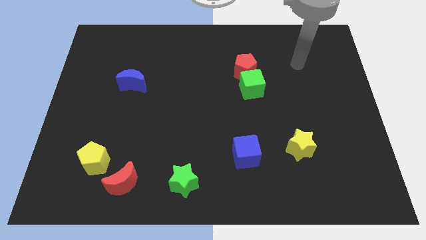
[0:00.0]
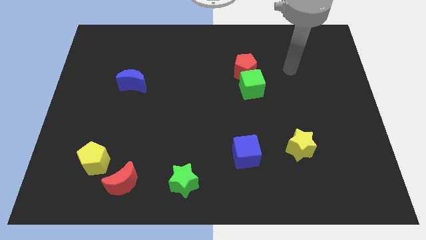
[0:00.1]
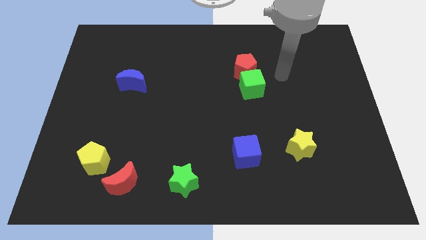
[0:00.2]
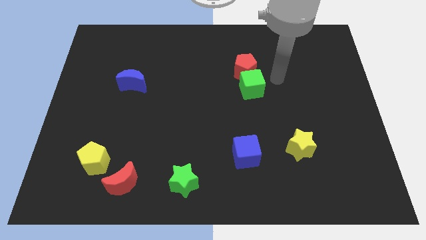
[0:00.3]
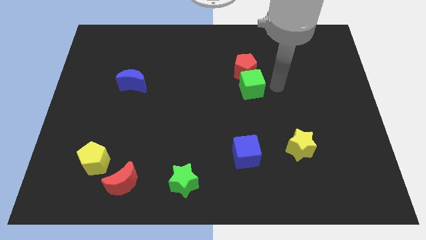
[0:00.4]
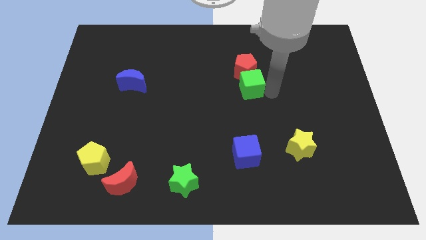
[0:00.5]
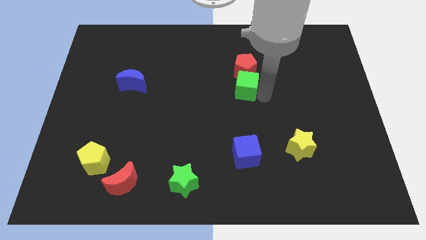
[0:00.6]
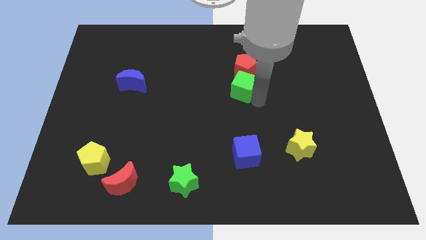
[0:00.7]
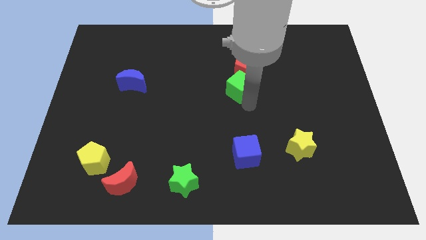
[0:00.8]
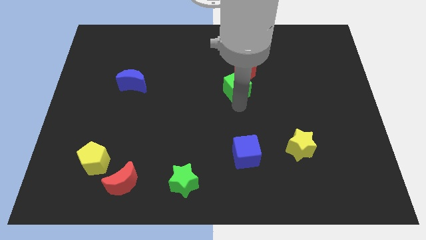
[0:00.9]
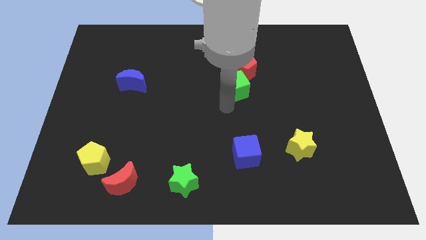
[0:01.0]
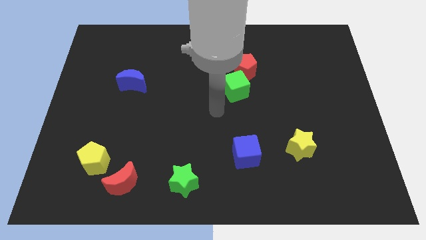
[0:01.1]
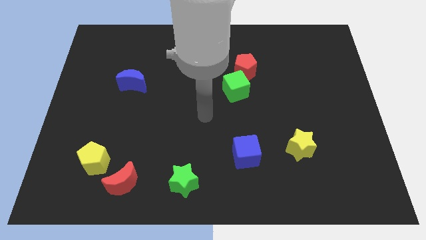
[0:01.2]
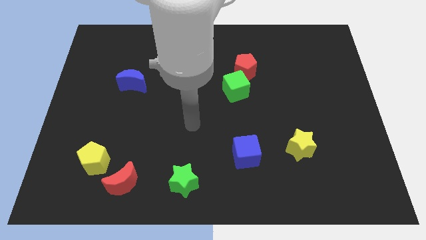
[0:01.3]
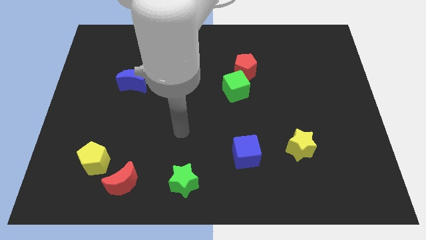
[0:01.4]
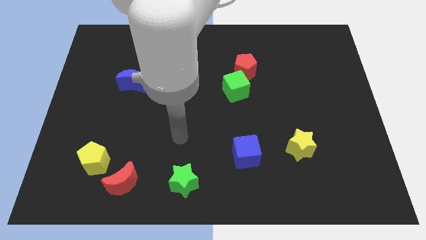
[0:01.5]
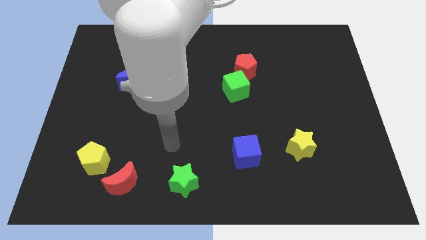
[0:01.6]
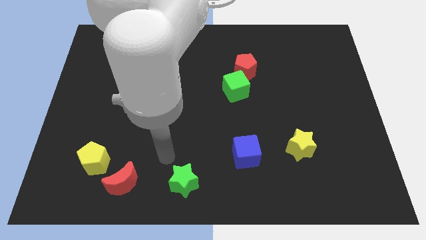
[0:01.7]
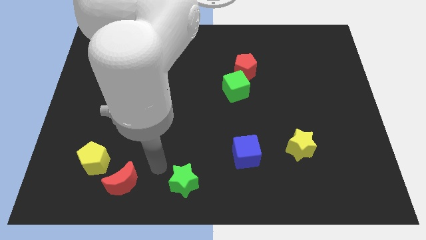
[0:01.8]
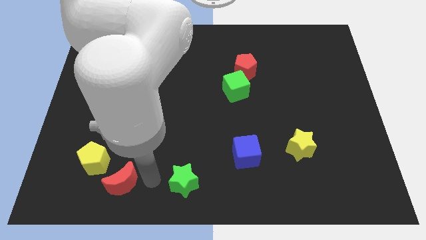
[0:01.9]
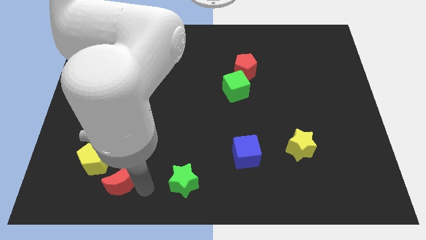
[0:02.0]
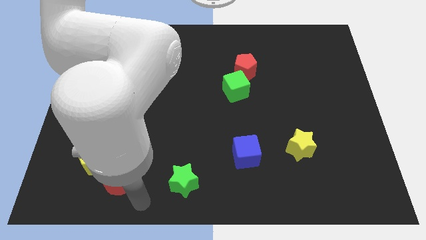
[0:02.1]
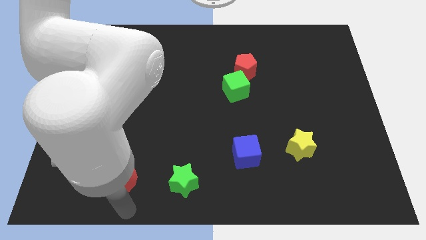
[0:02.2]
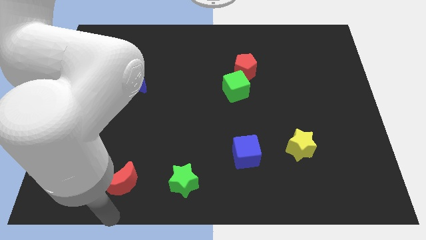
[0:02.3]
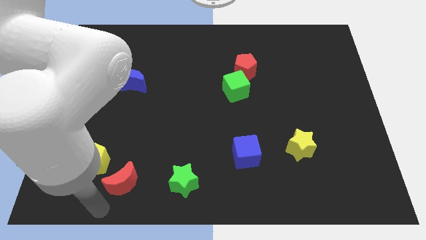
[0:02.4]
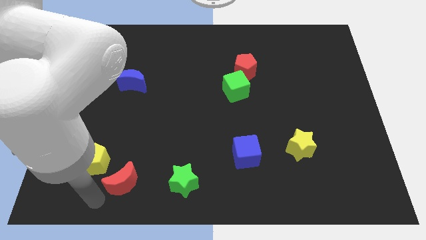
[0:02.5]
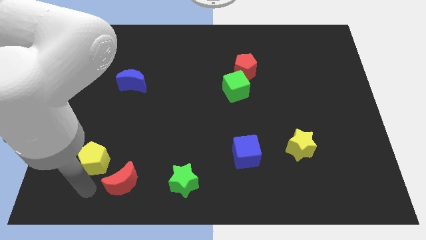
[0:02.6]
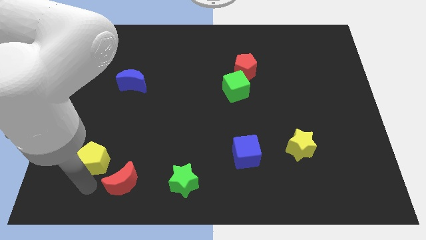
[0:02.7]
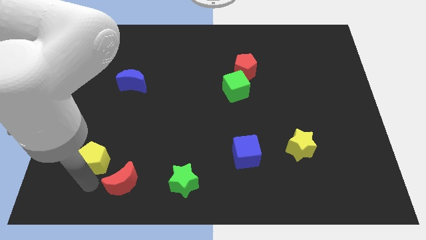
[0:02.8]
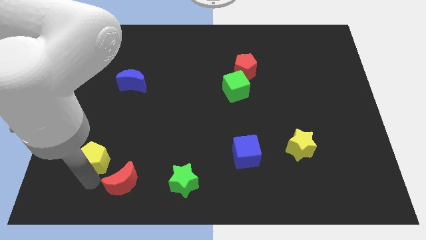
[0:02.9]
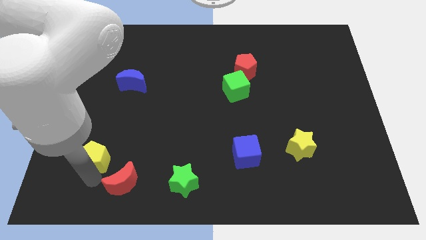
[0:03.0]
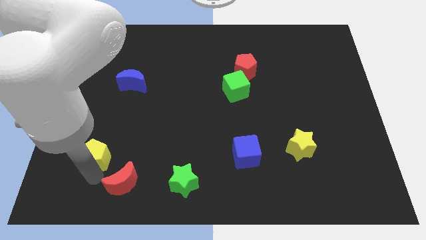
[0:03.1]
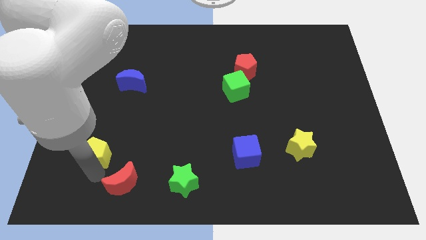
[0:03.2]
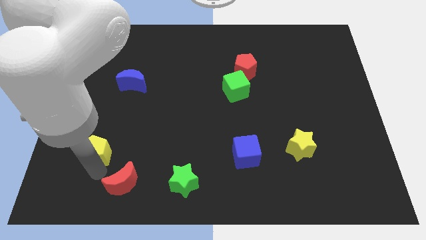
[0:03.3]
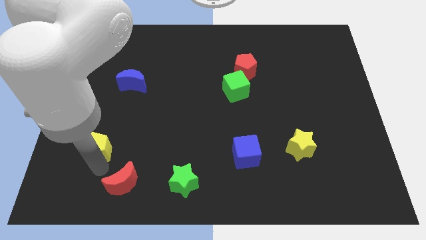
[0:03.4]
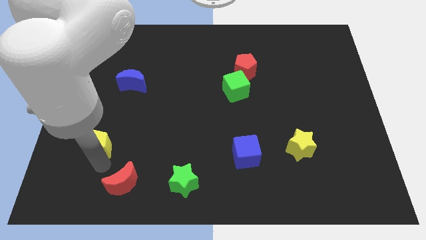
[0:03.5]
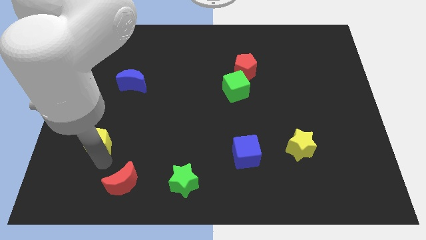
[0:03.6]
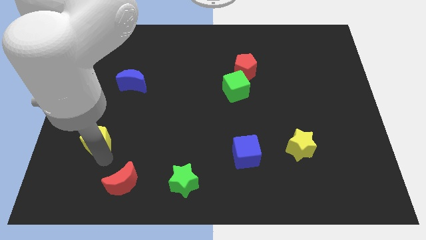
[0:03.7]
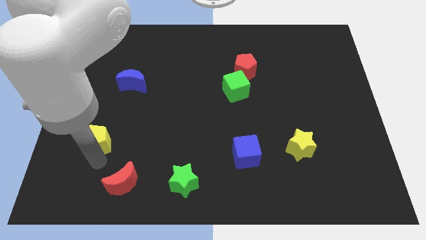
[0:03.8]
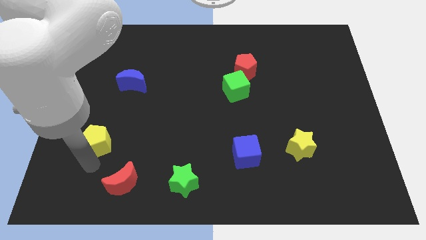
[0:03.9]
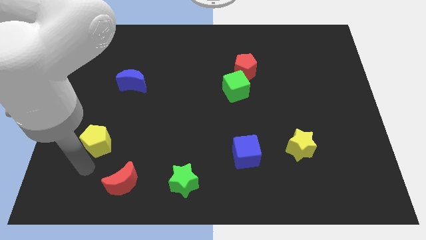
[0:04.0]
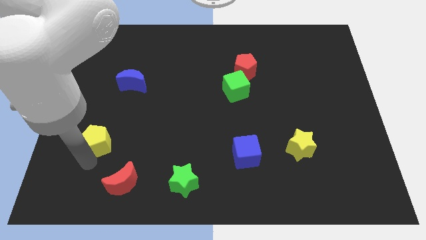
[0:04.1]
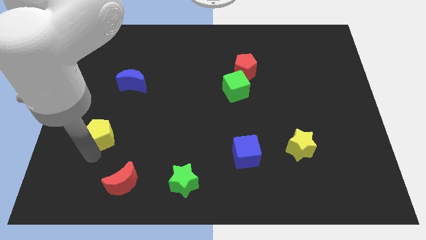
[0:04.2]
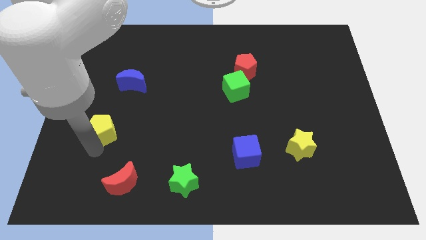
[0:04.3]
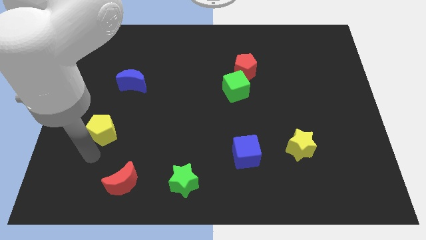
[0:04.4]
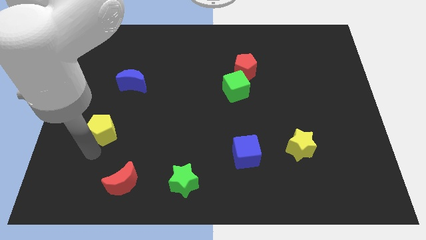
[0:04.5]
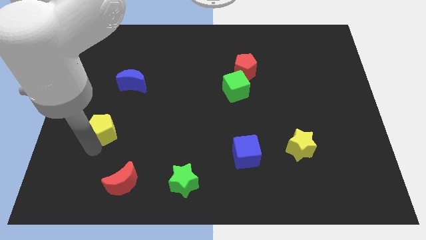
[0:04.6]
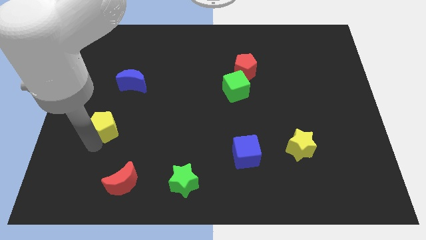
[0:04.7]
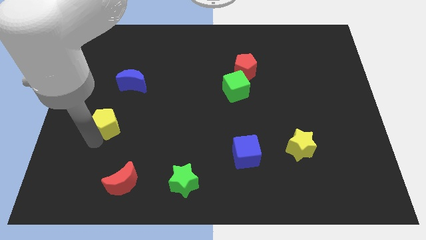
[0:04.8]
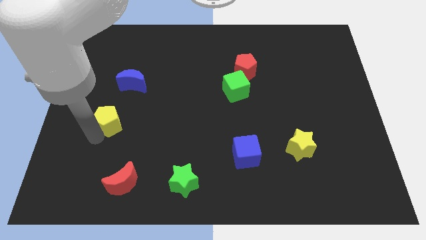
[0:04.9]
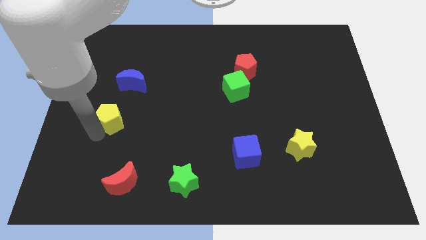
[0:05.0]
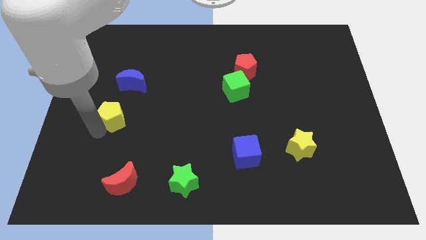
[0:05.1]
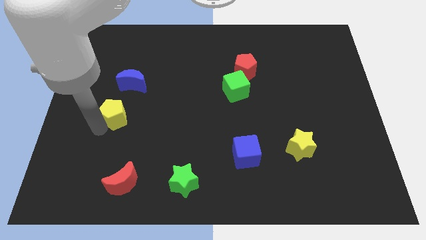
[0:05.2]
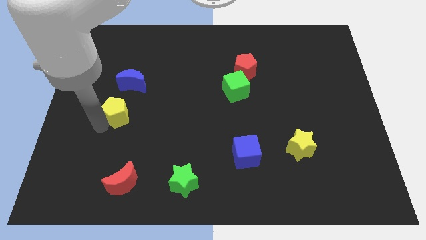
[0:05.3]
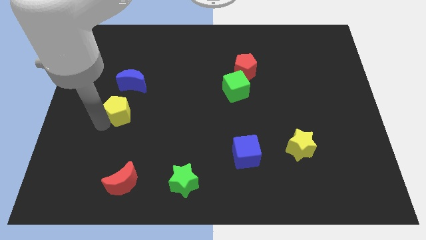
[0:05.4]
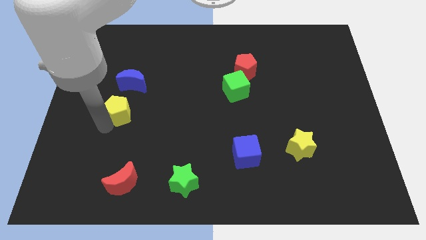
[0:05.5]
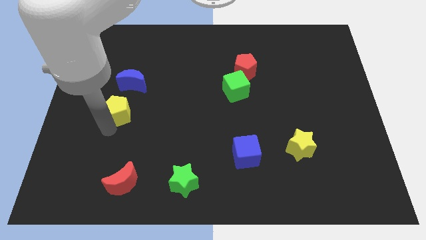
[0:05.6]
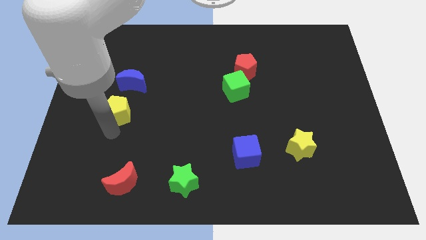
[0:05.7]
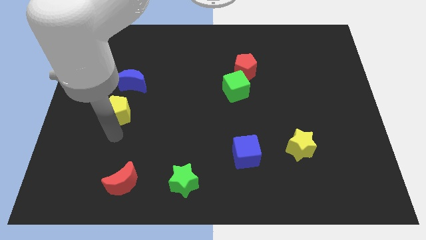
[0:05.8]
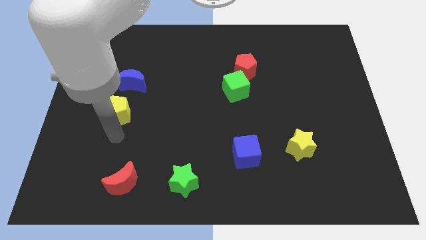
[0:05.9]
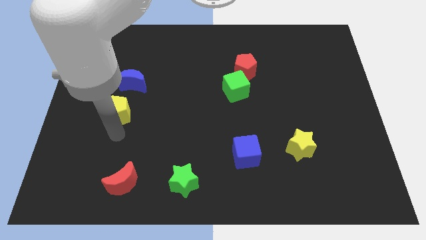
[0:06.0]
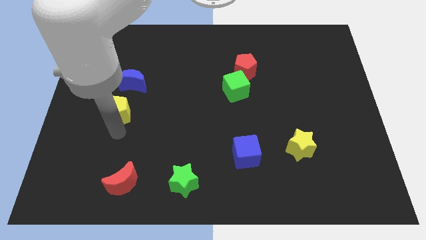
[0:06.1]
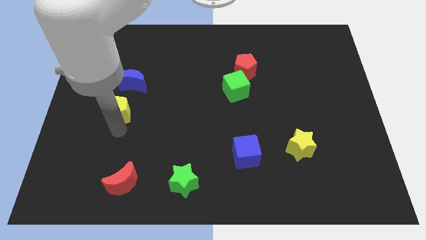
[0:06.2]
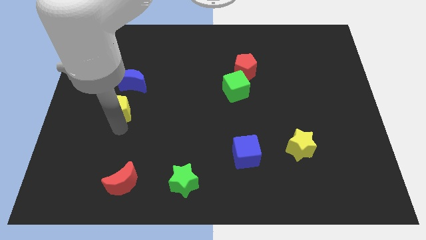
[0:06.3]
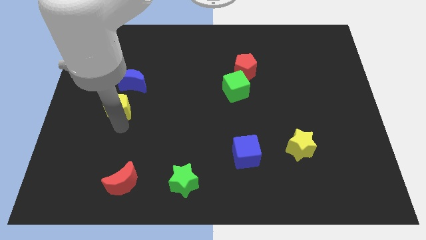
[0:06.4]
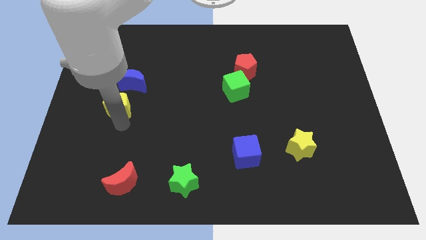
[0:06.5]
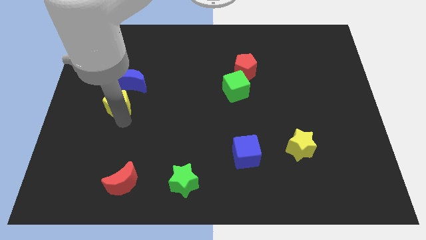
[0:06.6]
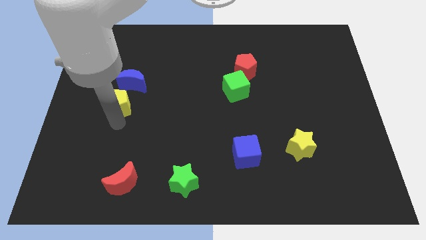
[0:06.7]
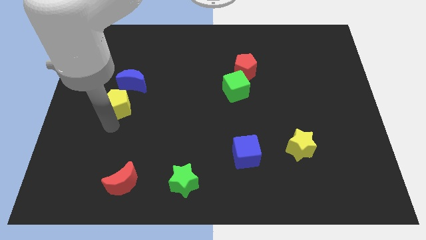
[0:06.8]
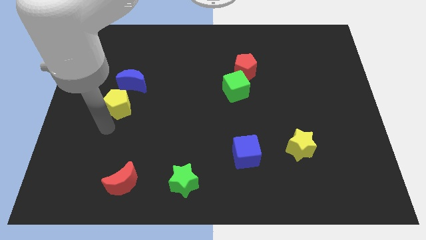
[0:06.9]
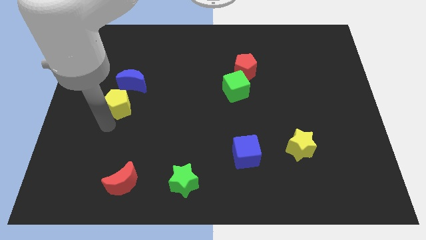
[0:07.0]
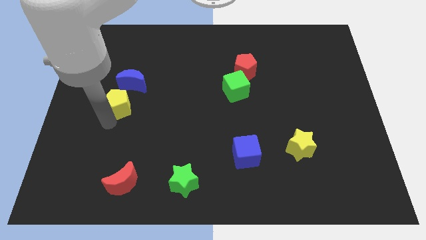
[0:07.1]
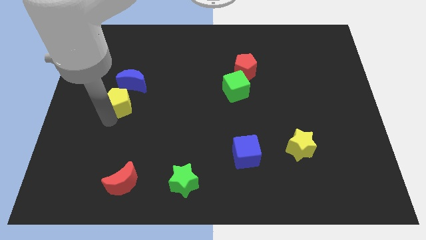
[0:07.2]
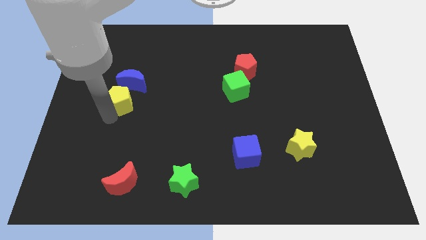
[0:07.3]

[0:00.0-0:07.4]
move the yellow pentagon to the blue moon
